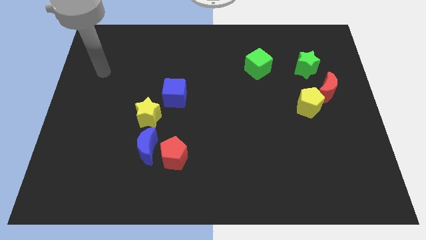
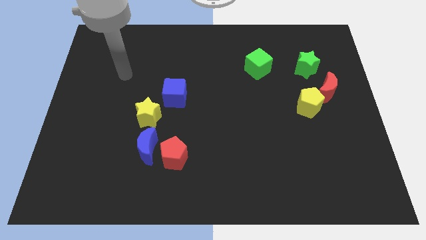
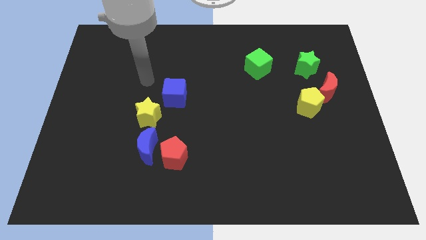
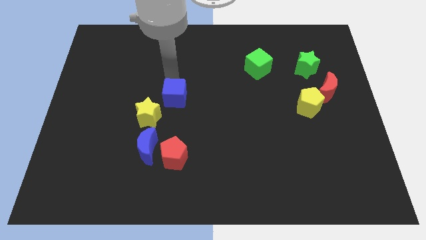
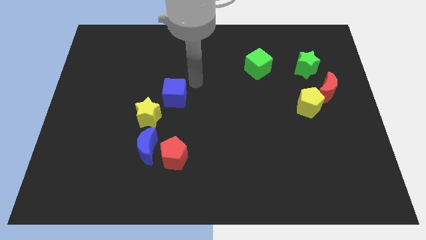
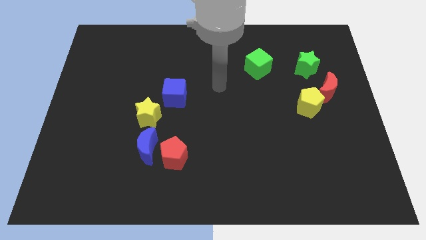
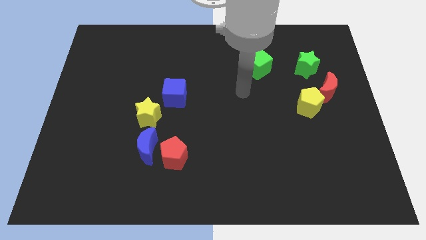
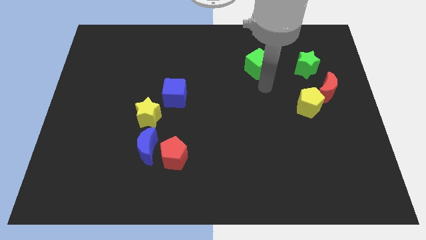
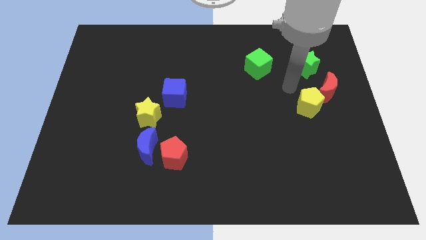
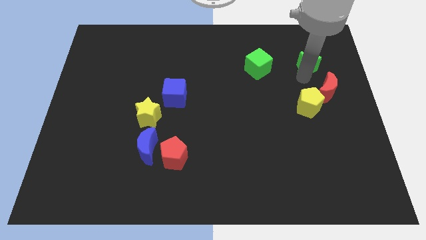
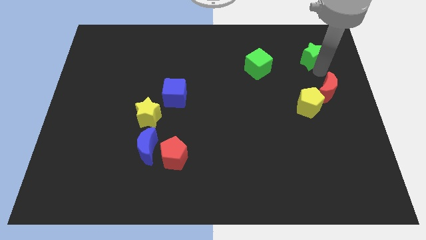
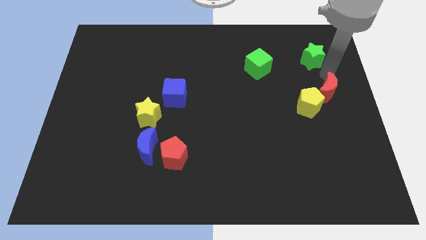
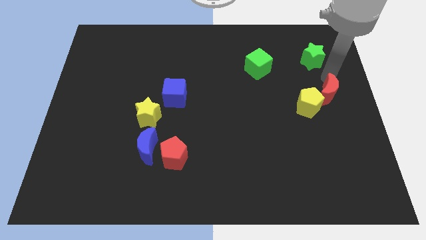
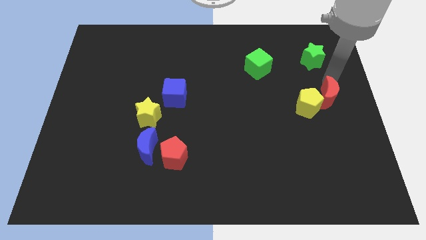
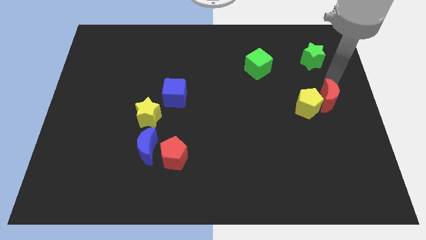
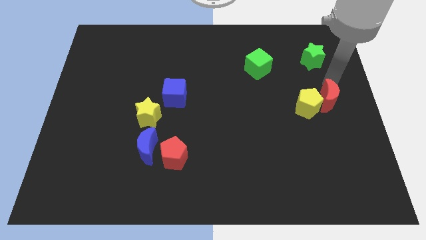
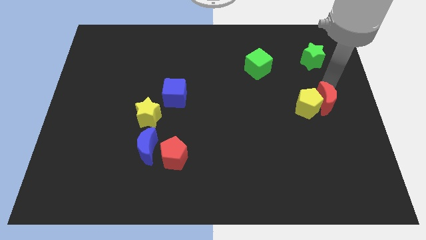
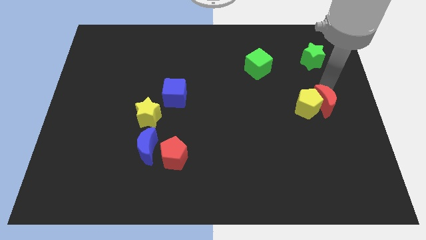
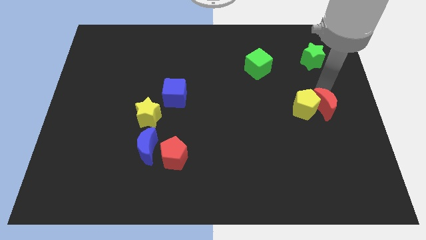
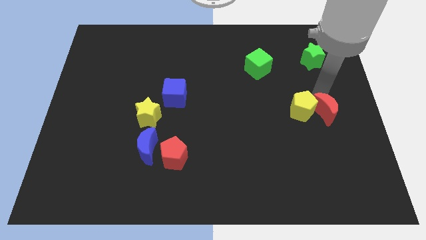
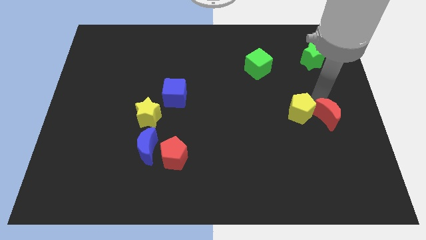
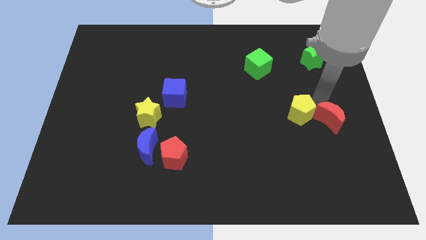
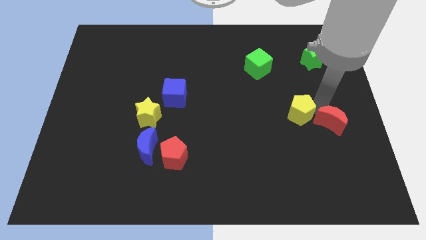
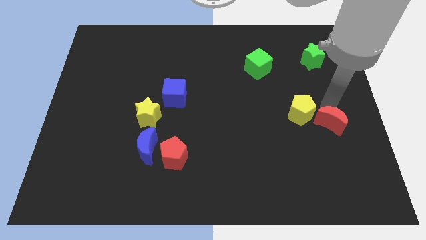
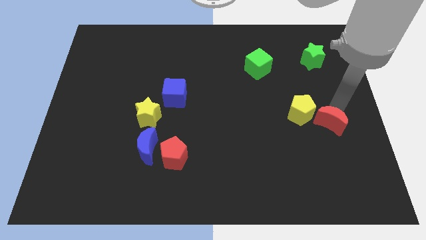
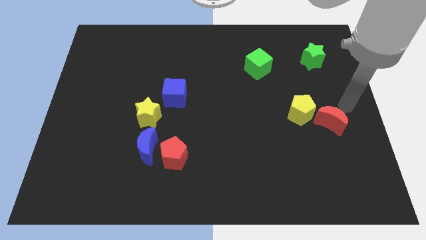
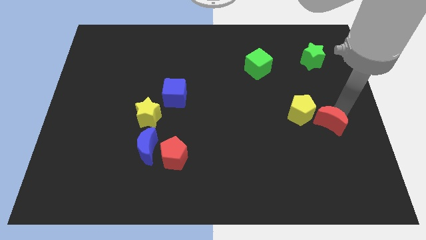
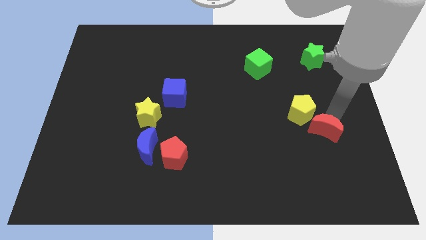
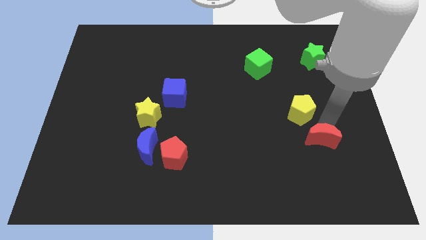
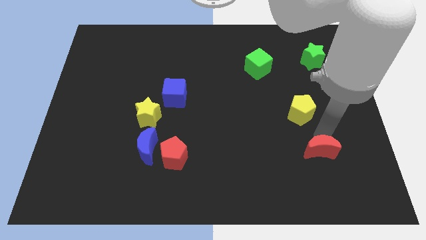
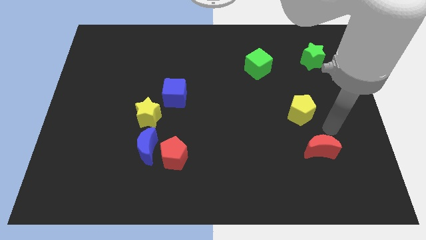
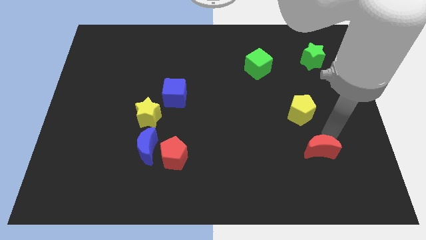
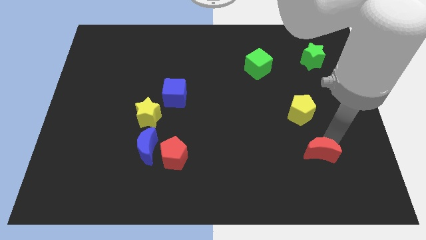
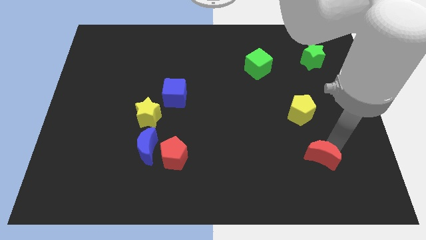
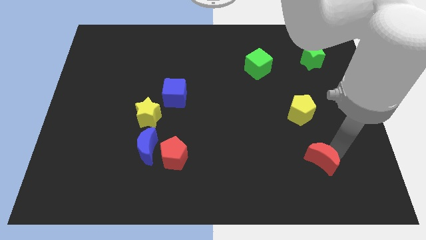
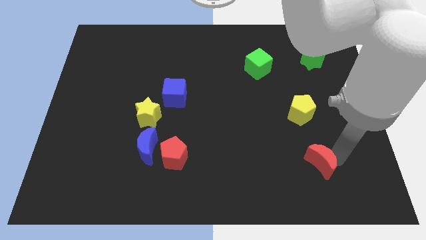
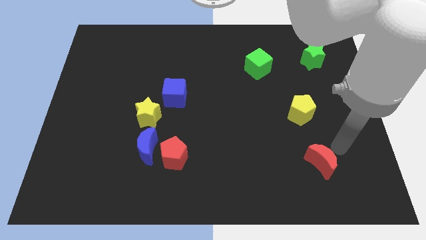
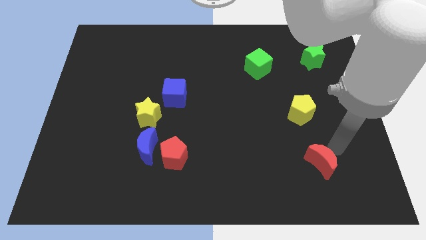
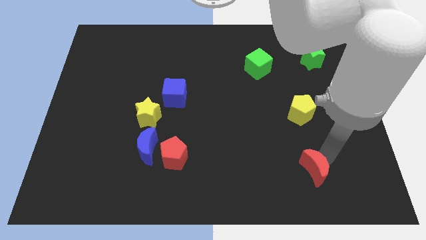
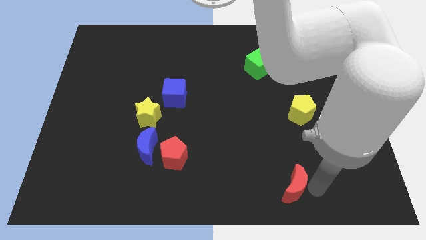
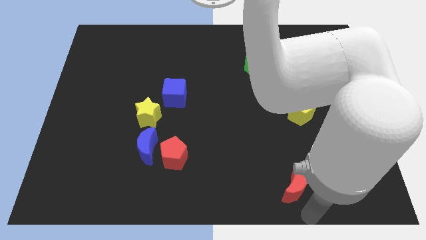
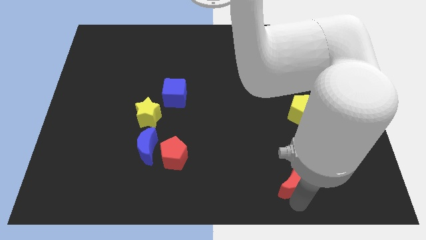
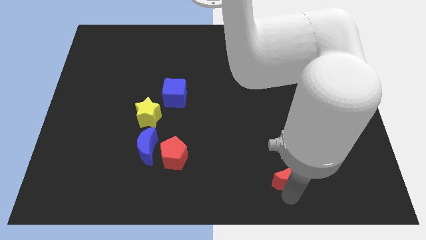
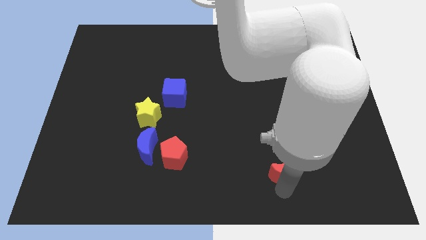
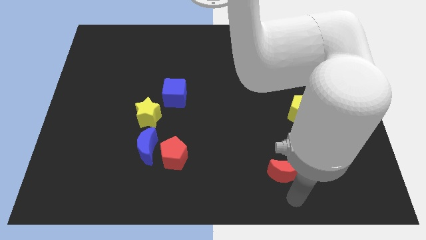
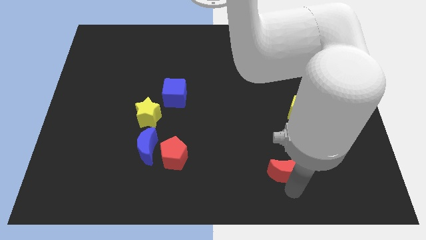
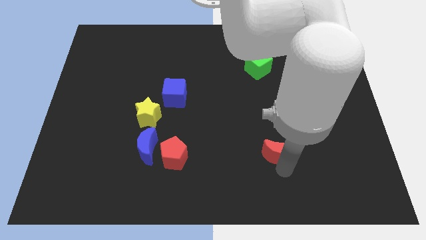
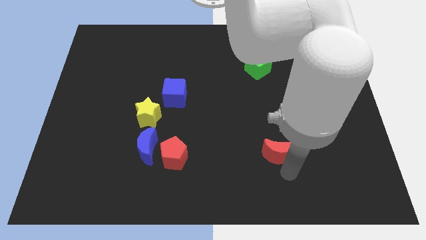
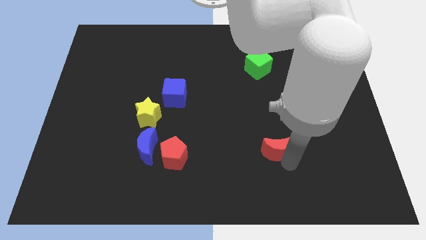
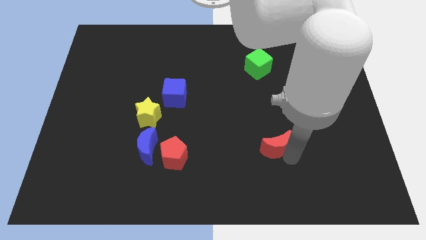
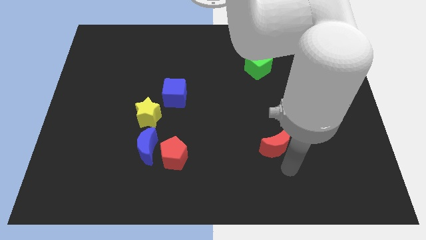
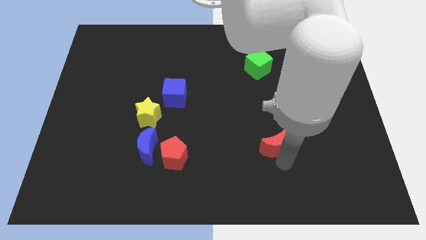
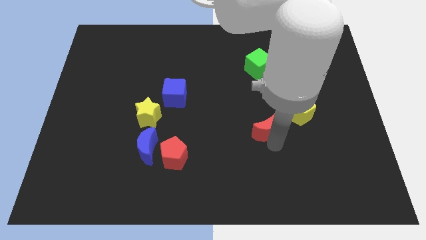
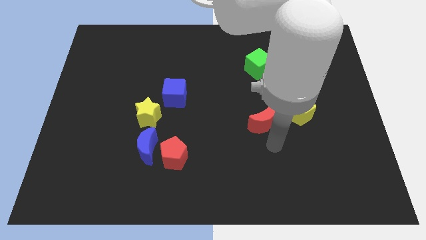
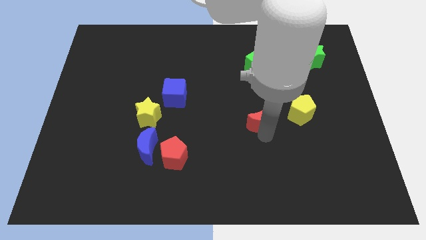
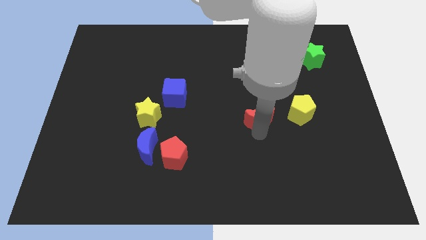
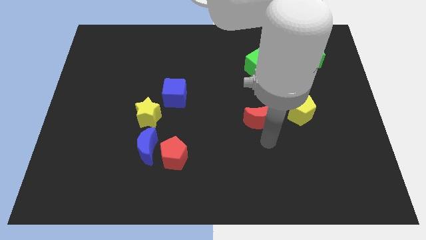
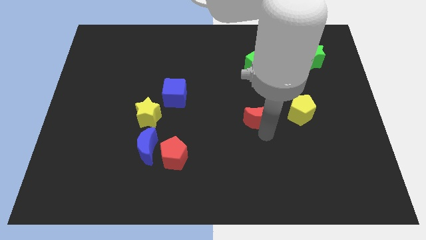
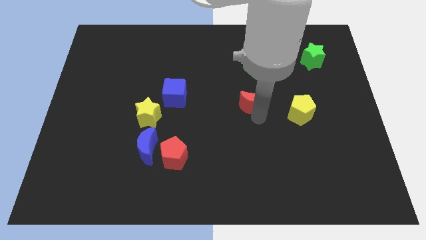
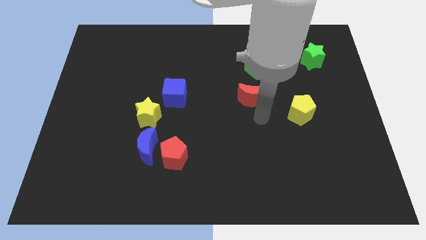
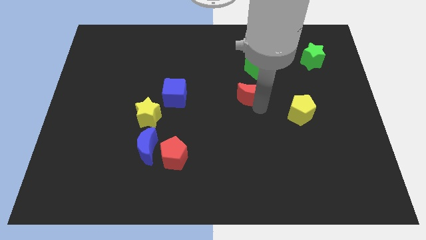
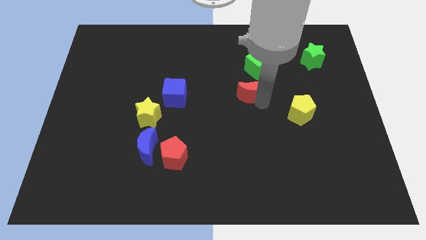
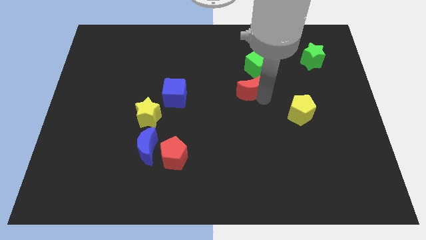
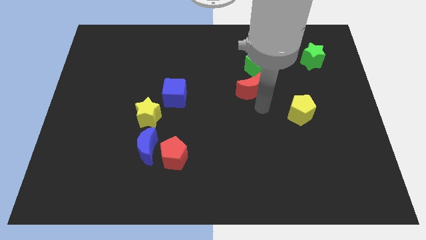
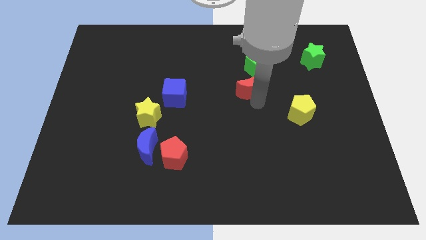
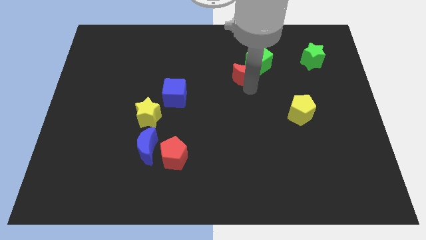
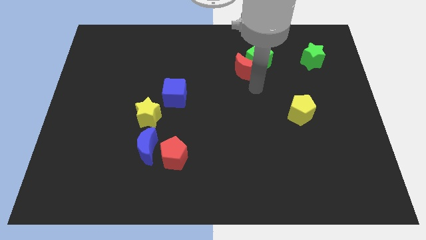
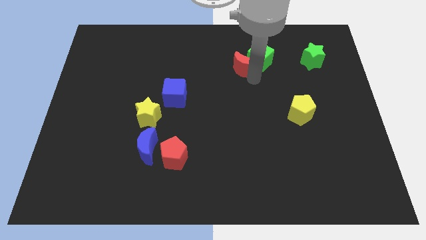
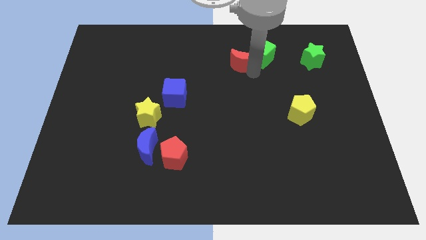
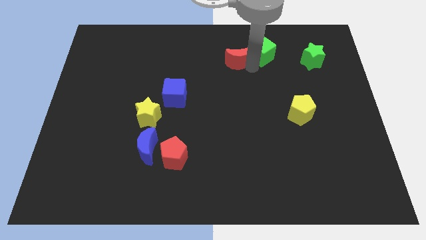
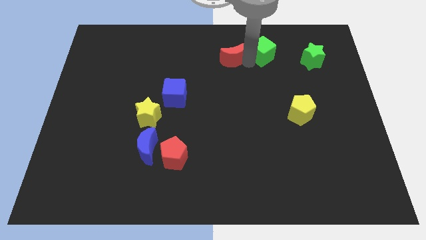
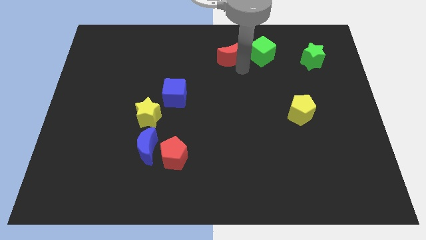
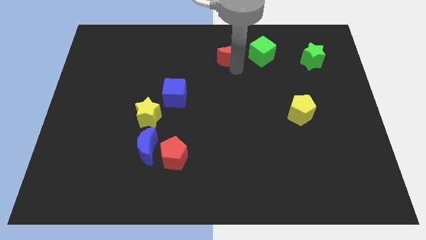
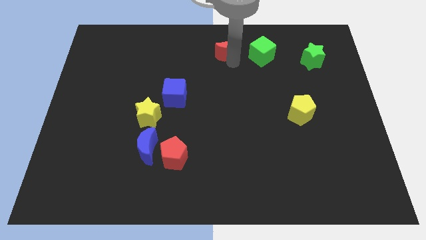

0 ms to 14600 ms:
put the red moon to the top side
